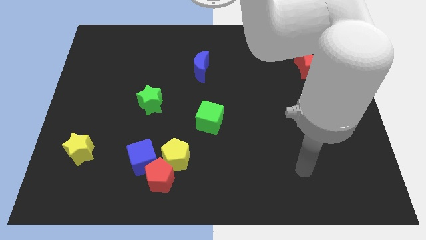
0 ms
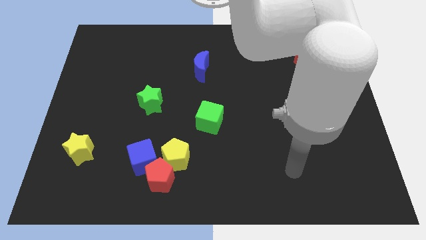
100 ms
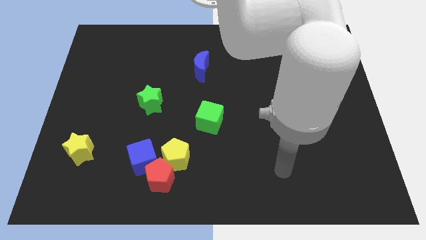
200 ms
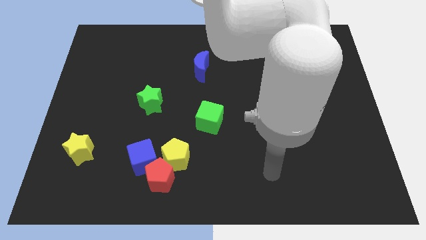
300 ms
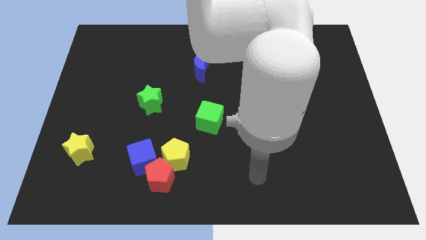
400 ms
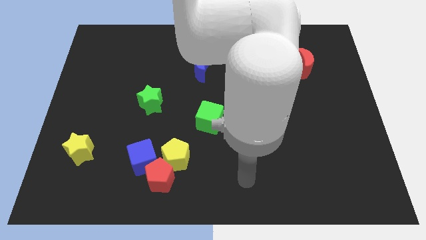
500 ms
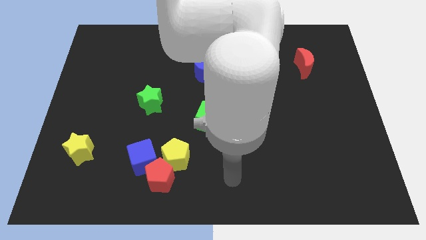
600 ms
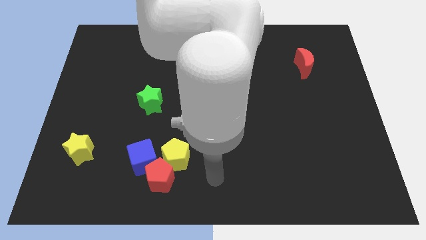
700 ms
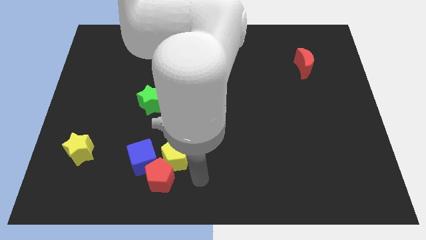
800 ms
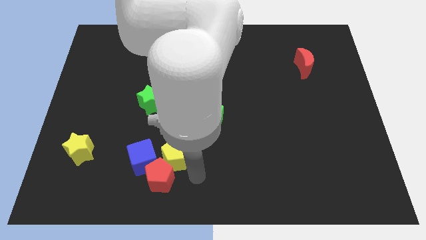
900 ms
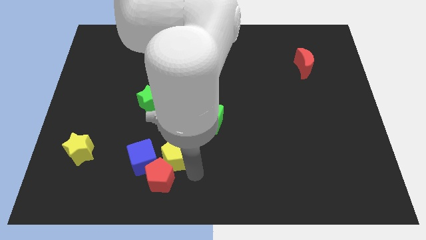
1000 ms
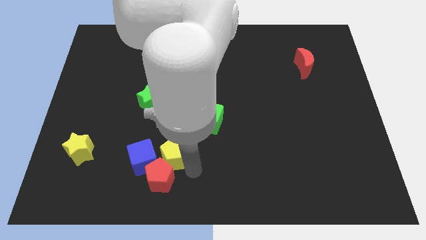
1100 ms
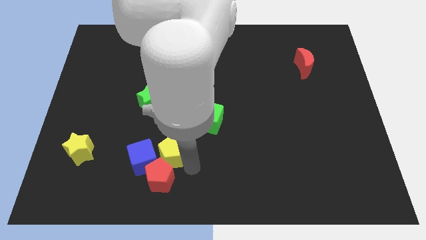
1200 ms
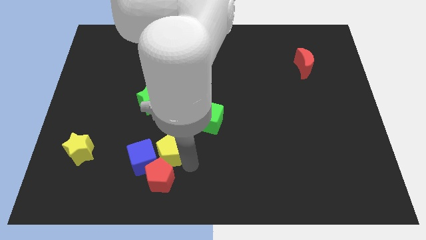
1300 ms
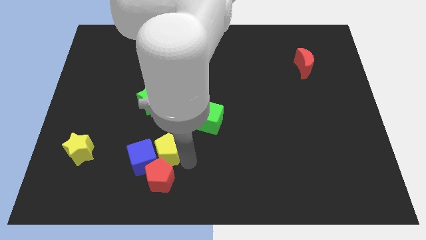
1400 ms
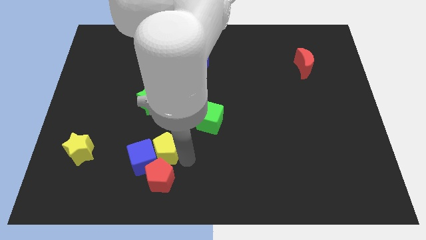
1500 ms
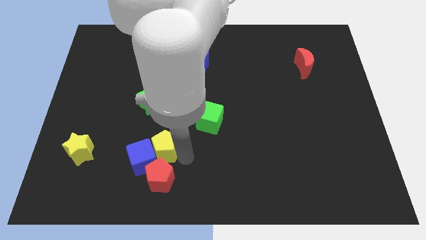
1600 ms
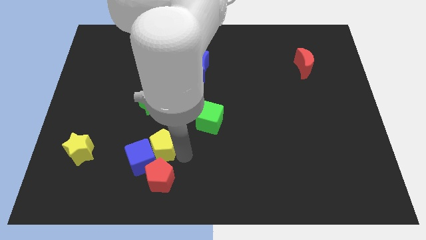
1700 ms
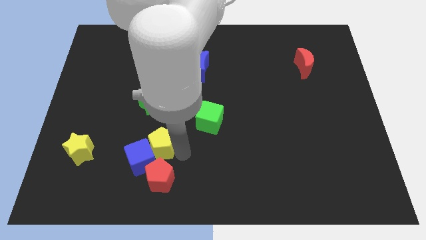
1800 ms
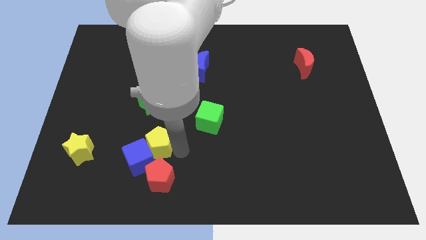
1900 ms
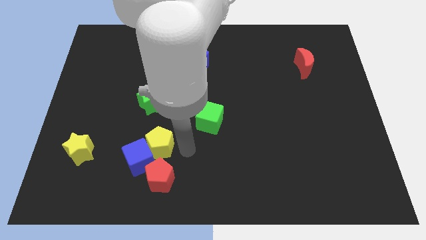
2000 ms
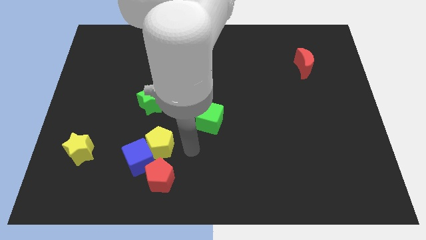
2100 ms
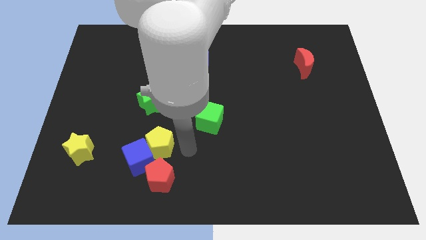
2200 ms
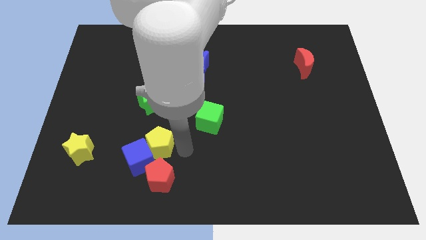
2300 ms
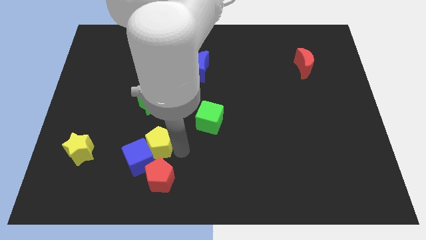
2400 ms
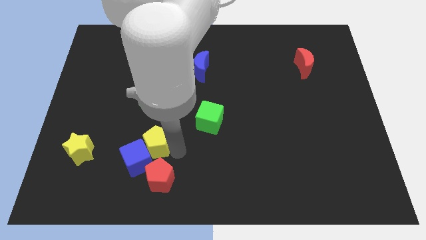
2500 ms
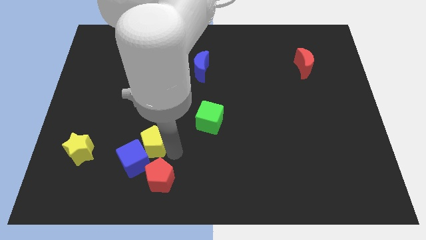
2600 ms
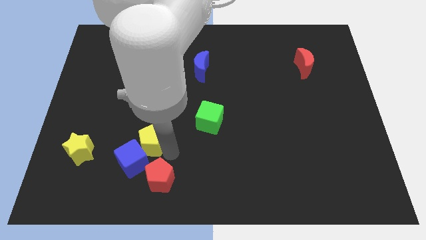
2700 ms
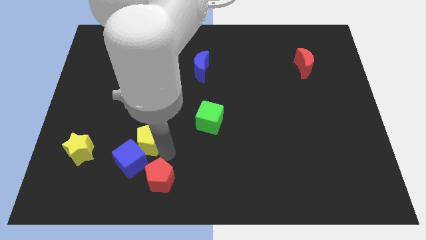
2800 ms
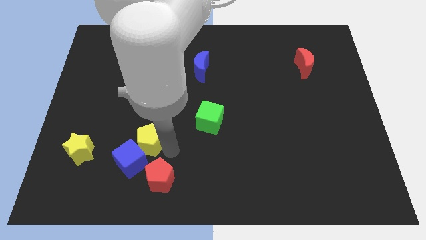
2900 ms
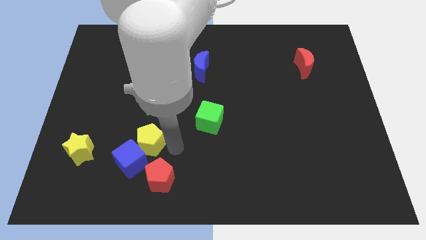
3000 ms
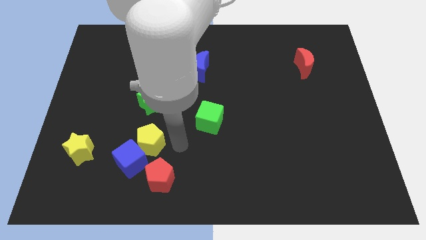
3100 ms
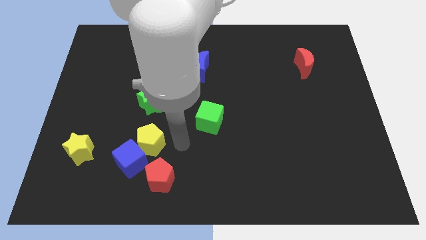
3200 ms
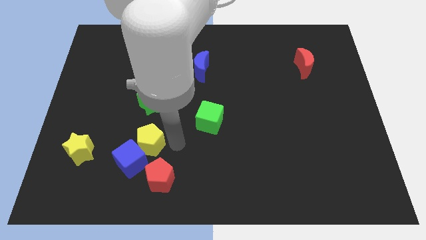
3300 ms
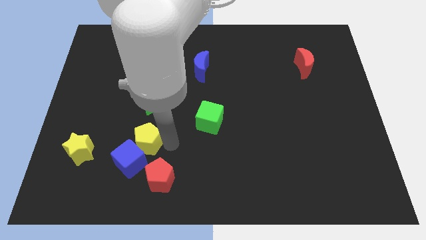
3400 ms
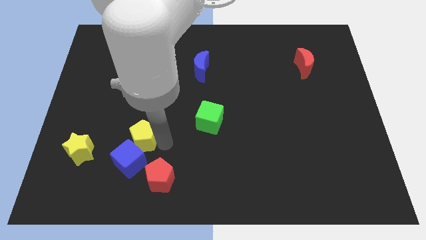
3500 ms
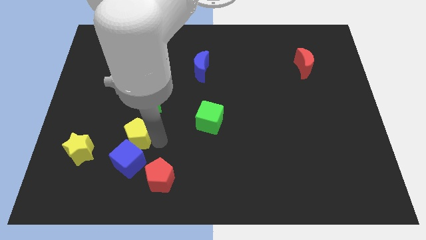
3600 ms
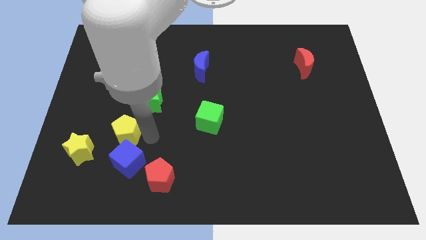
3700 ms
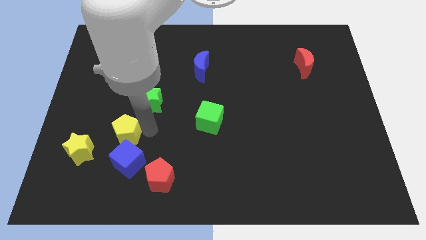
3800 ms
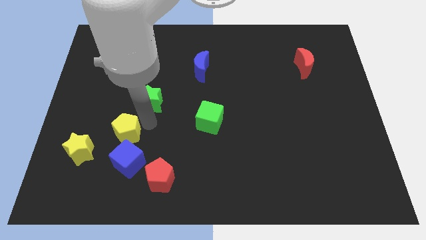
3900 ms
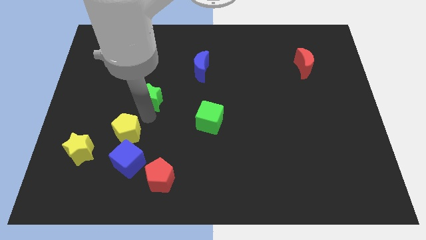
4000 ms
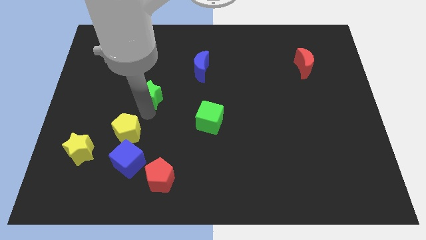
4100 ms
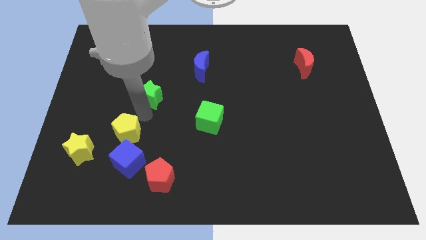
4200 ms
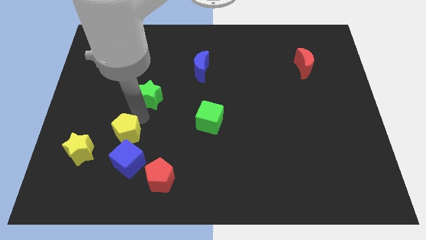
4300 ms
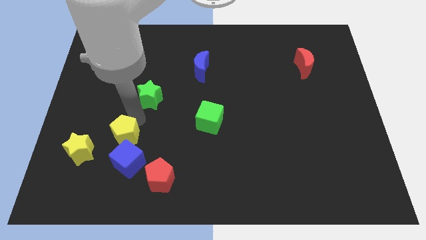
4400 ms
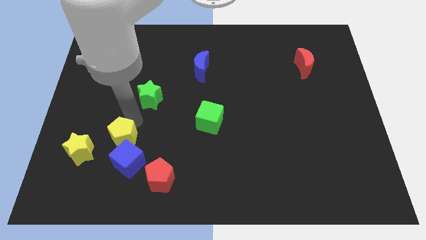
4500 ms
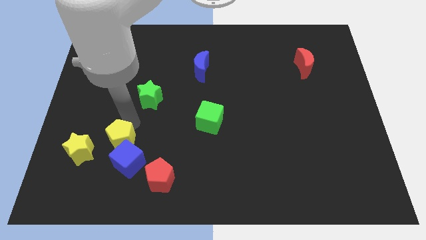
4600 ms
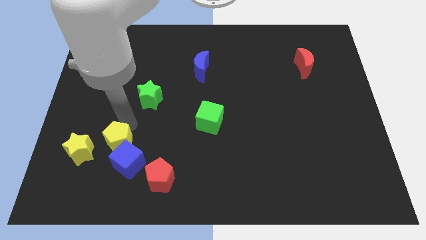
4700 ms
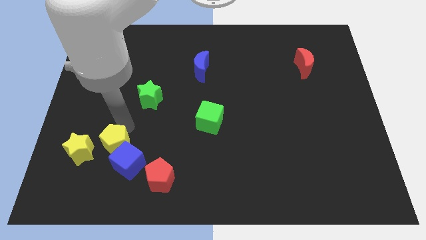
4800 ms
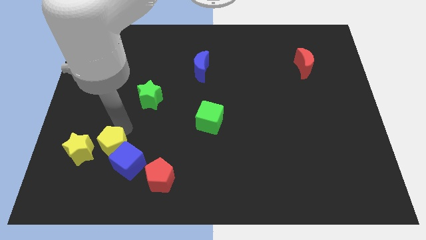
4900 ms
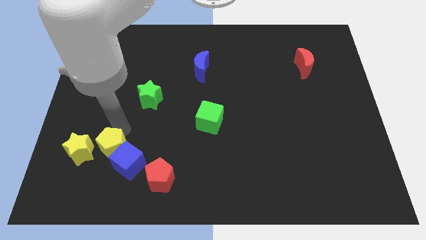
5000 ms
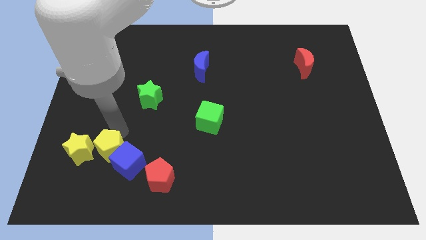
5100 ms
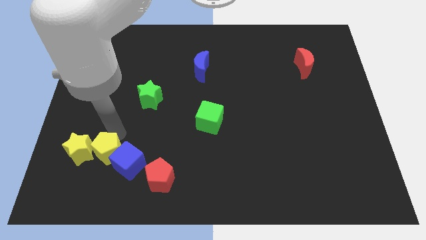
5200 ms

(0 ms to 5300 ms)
move the yellow pentagon next to the yellow star

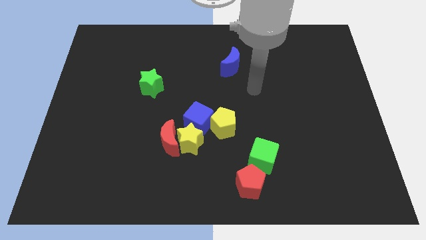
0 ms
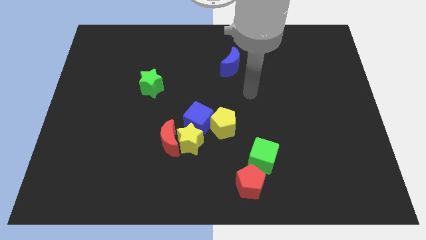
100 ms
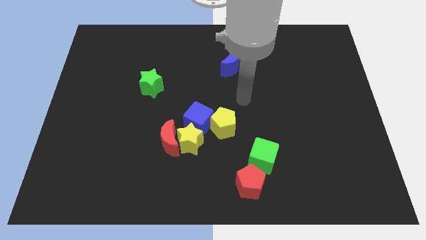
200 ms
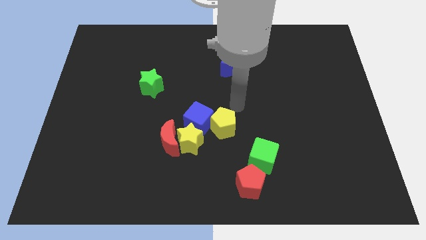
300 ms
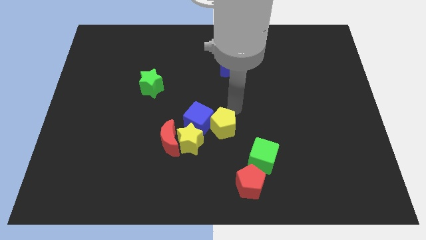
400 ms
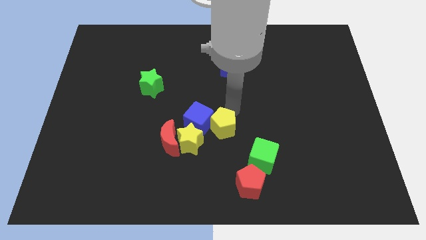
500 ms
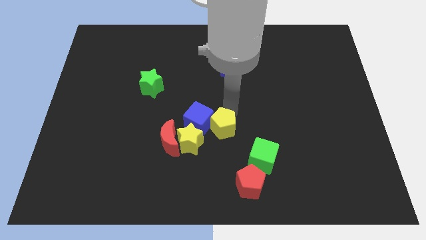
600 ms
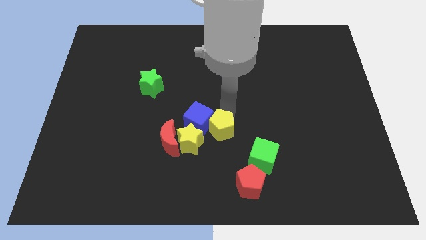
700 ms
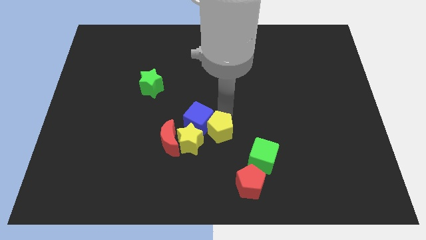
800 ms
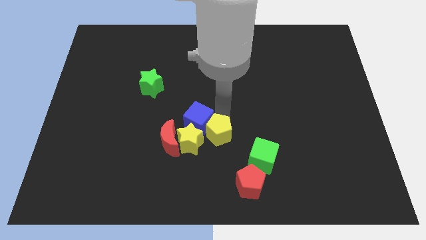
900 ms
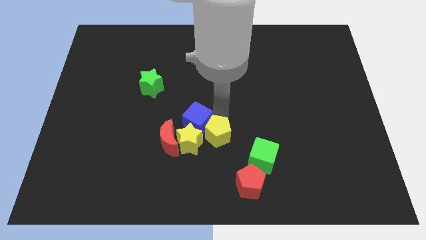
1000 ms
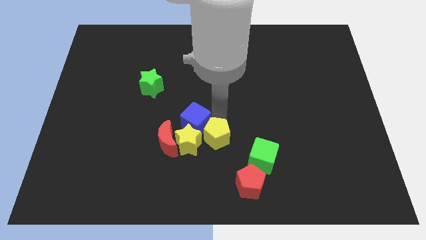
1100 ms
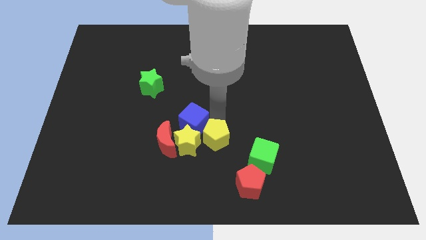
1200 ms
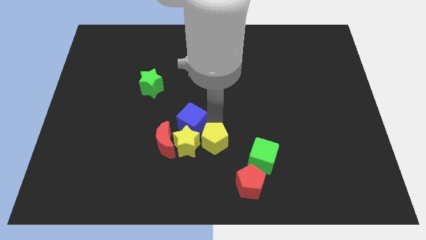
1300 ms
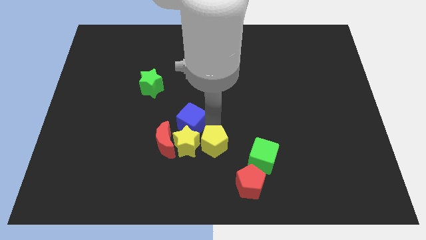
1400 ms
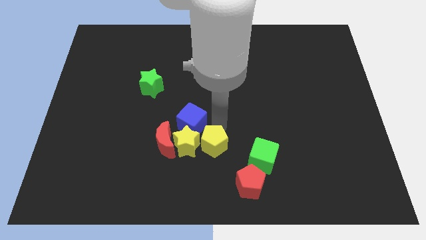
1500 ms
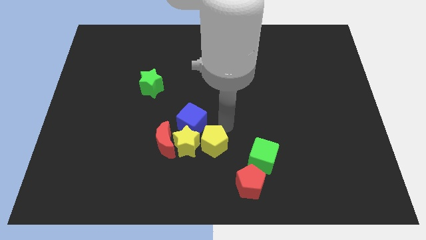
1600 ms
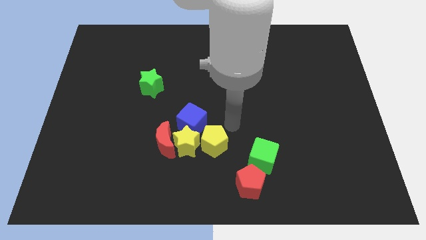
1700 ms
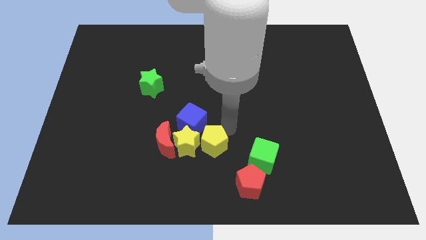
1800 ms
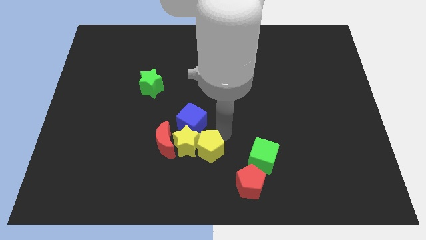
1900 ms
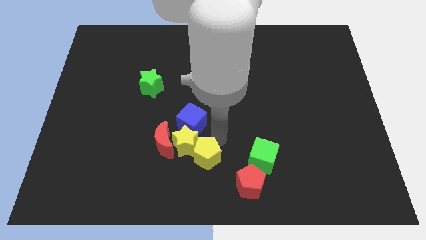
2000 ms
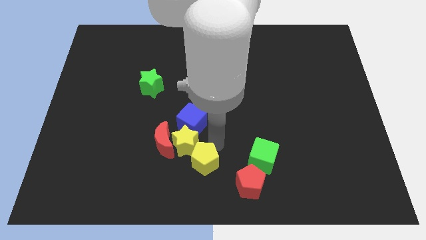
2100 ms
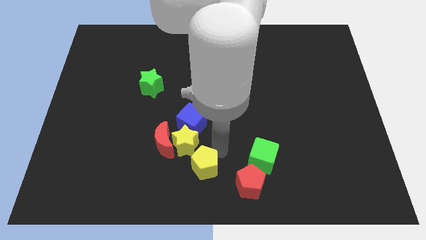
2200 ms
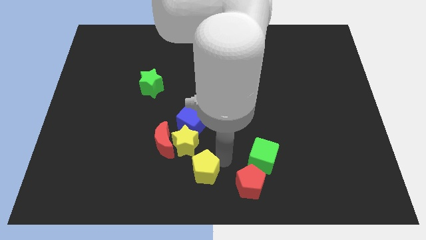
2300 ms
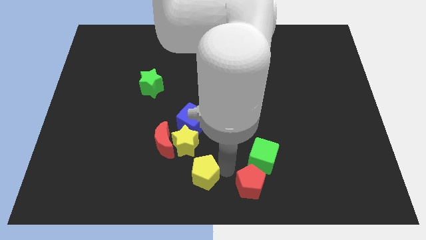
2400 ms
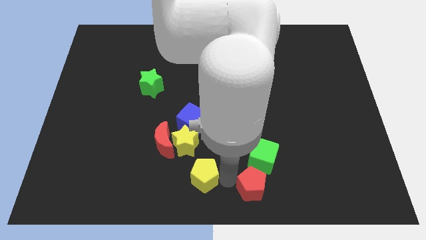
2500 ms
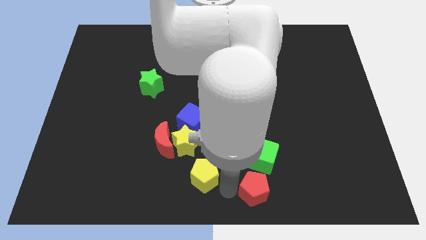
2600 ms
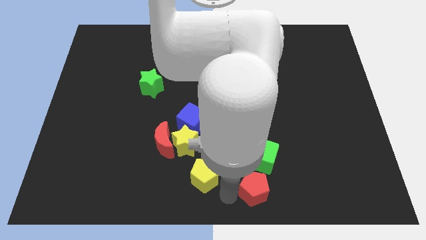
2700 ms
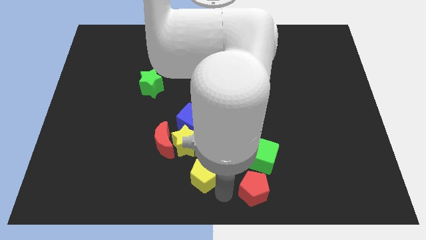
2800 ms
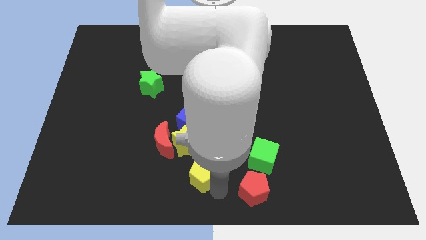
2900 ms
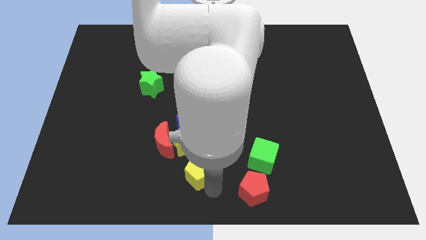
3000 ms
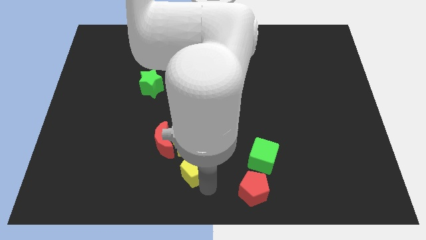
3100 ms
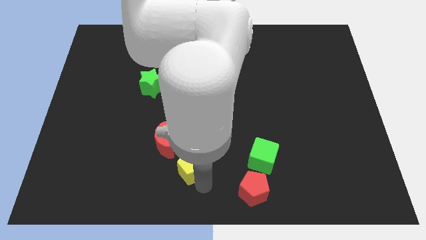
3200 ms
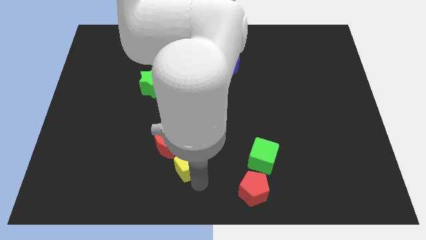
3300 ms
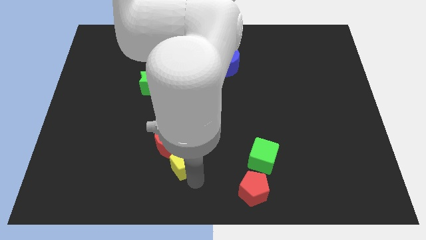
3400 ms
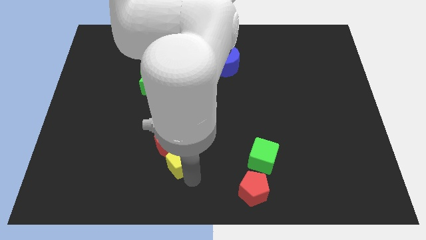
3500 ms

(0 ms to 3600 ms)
move the yellow pentagon towards the red moon
